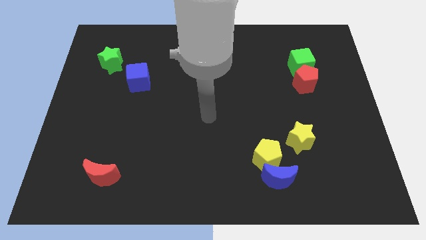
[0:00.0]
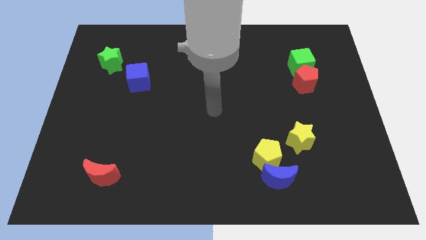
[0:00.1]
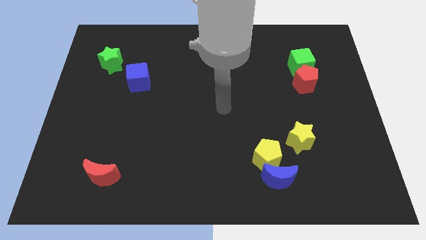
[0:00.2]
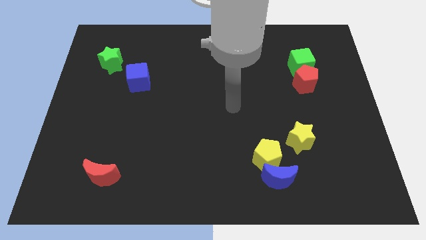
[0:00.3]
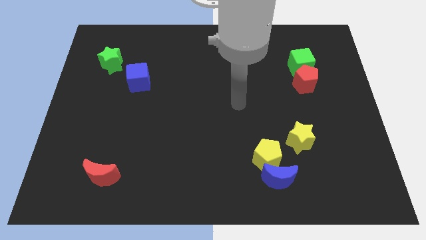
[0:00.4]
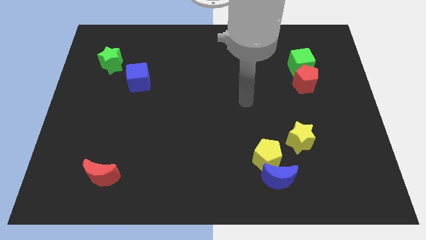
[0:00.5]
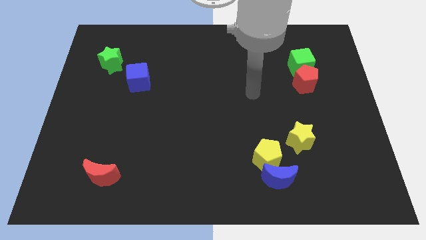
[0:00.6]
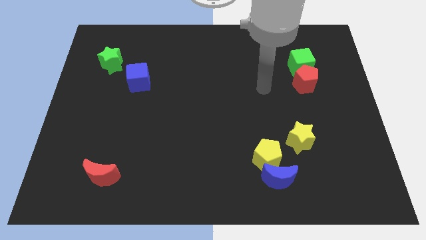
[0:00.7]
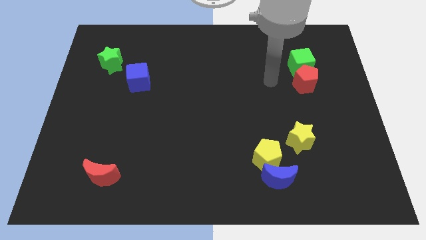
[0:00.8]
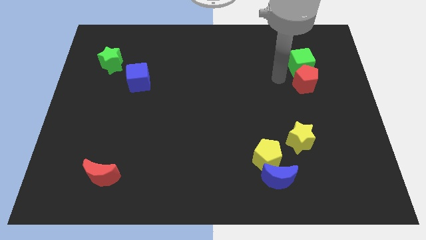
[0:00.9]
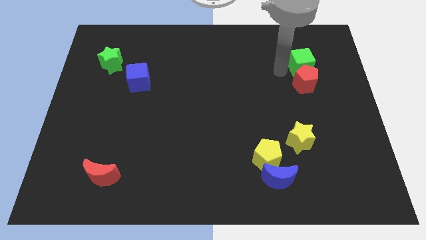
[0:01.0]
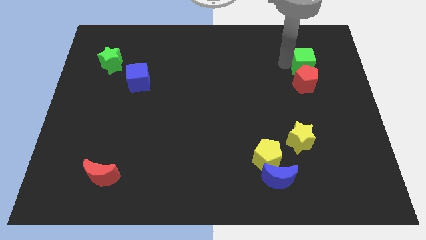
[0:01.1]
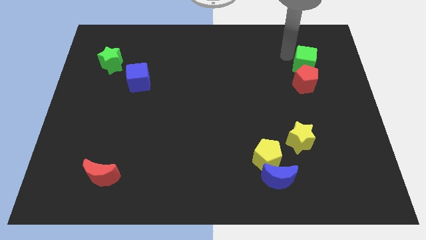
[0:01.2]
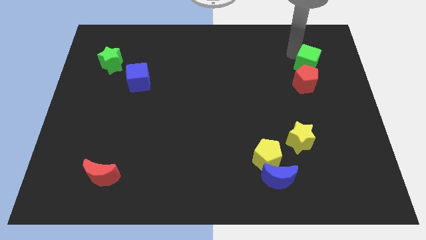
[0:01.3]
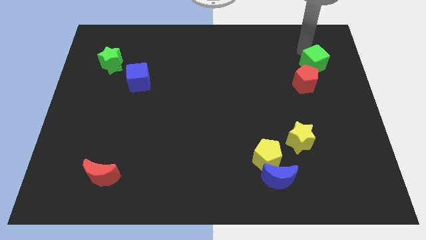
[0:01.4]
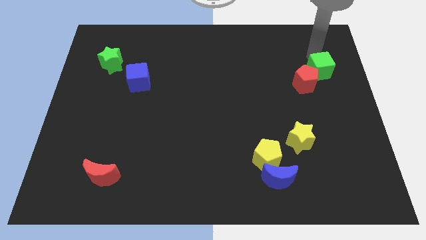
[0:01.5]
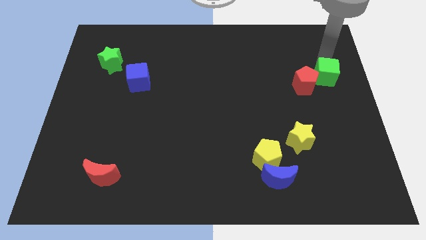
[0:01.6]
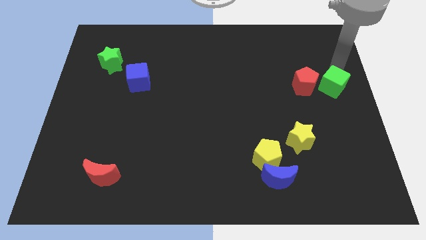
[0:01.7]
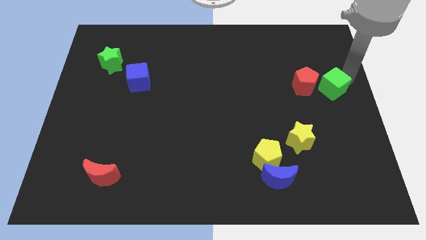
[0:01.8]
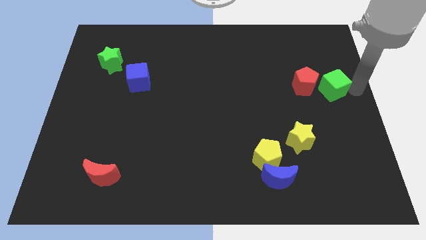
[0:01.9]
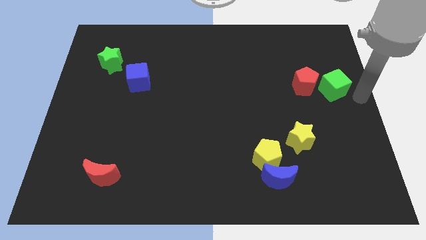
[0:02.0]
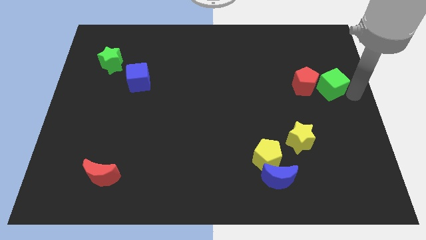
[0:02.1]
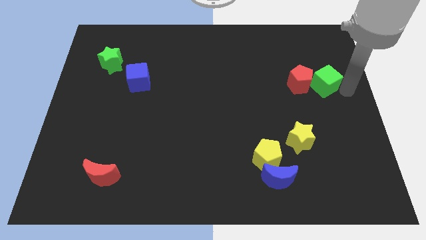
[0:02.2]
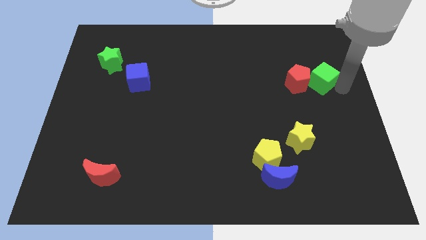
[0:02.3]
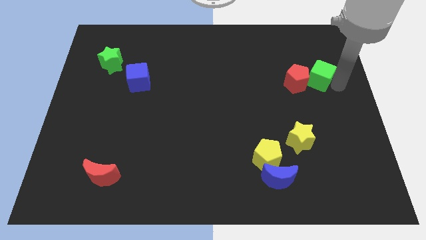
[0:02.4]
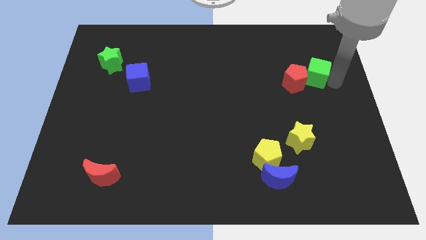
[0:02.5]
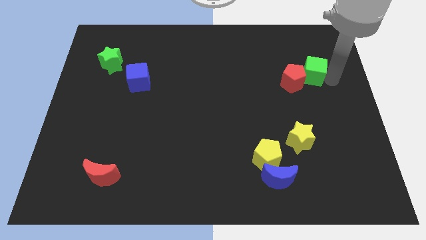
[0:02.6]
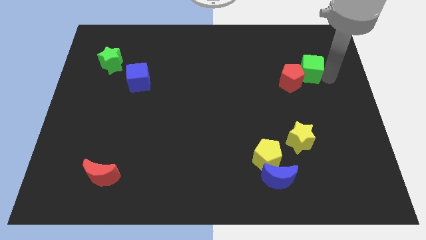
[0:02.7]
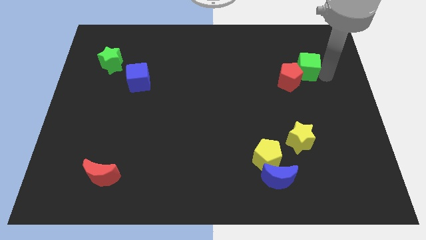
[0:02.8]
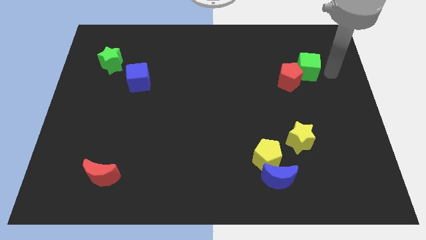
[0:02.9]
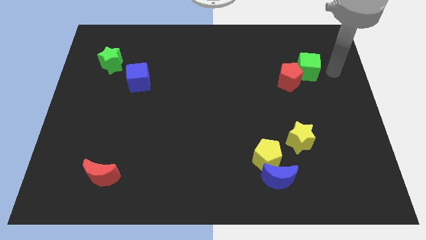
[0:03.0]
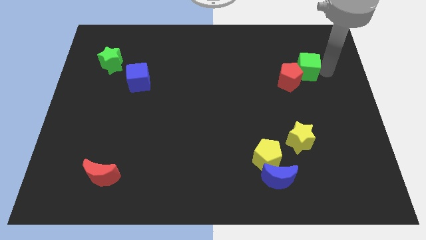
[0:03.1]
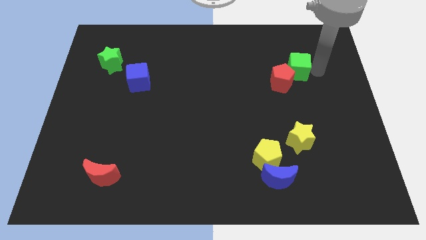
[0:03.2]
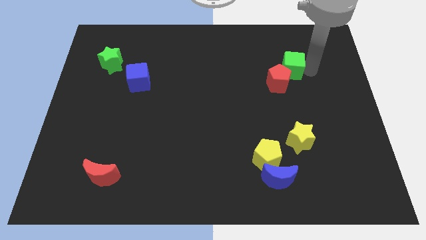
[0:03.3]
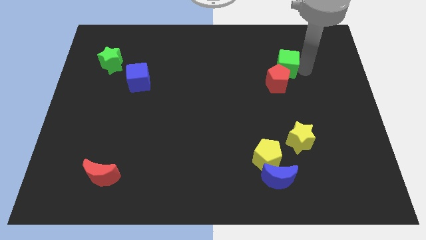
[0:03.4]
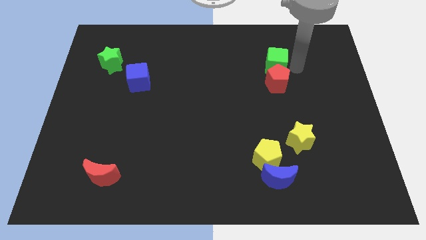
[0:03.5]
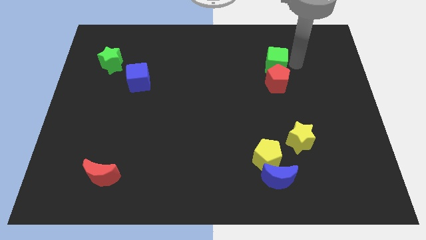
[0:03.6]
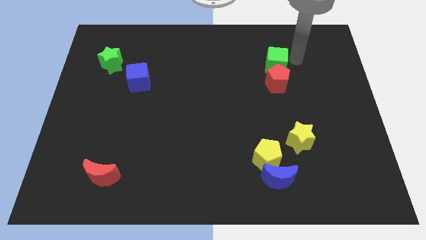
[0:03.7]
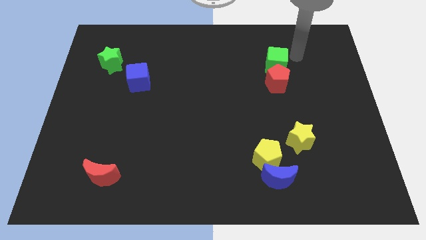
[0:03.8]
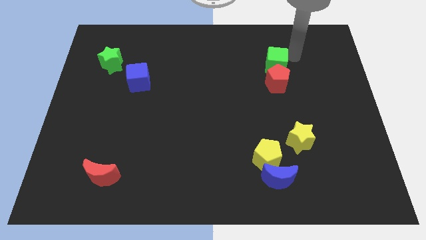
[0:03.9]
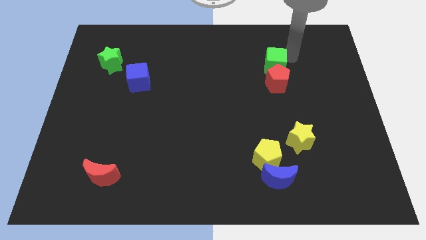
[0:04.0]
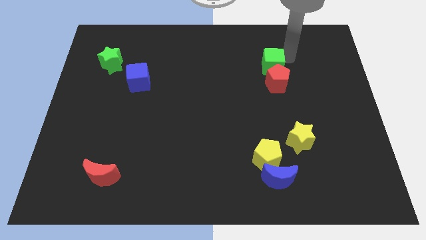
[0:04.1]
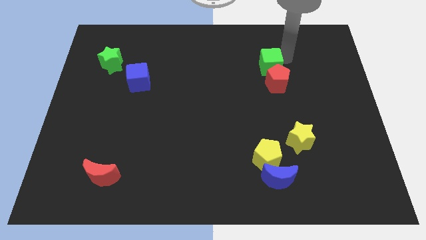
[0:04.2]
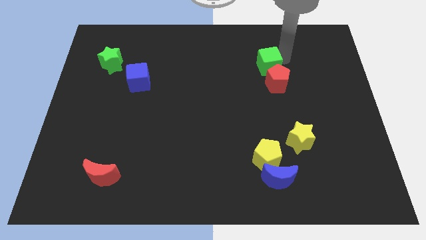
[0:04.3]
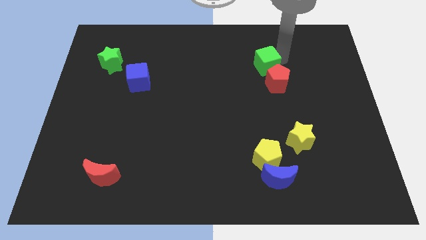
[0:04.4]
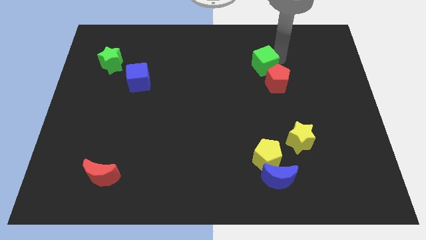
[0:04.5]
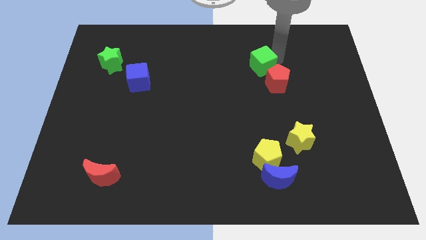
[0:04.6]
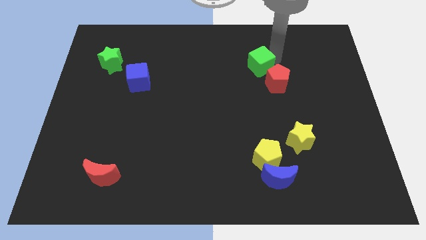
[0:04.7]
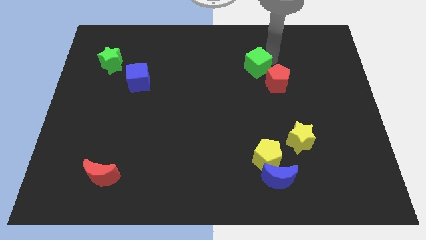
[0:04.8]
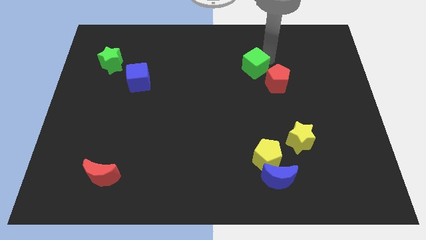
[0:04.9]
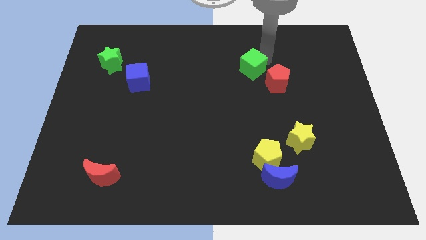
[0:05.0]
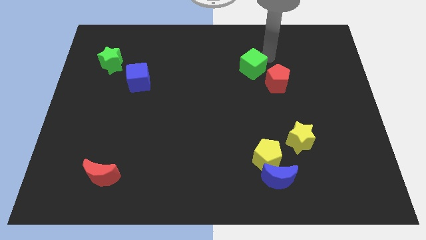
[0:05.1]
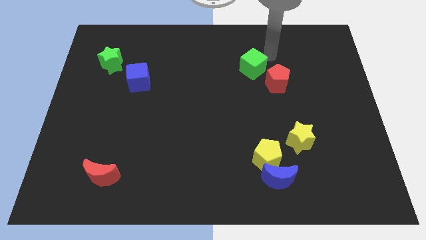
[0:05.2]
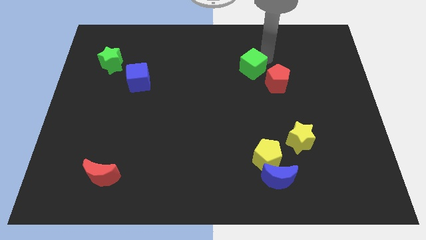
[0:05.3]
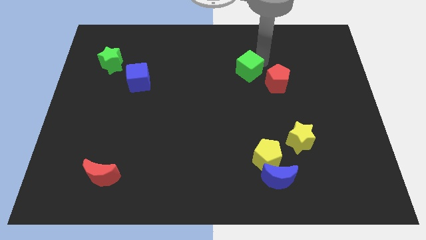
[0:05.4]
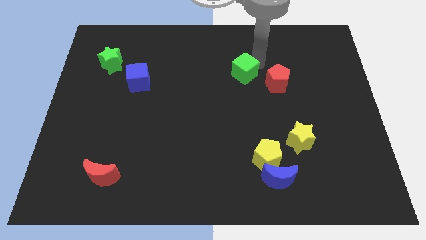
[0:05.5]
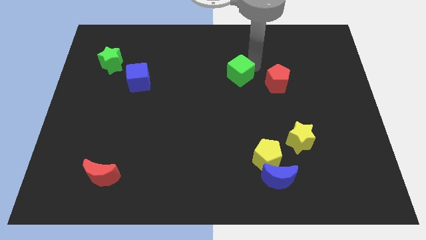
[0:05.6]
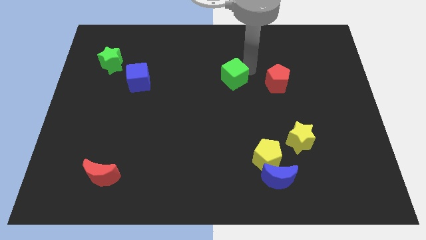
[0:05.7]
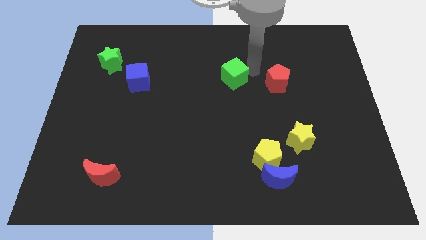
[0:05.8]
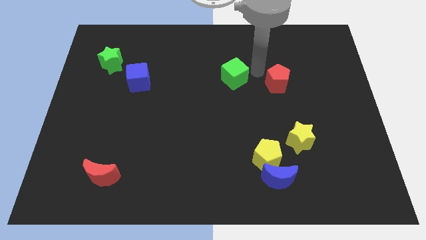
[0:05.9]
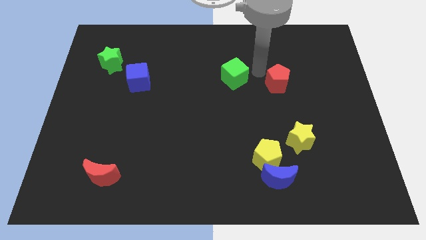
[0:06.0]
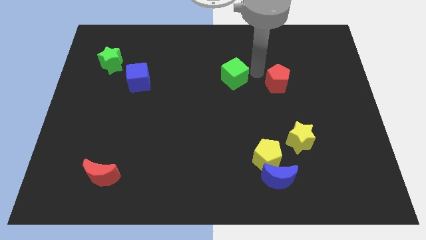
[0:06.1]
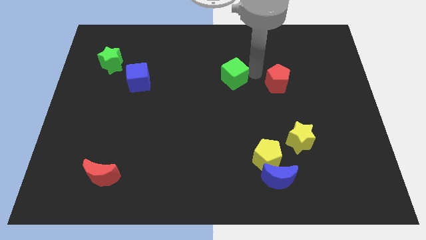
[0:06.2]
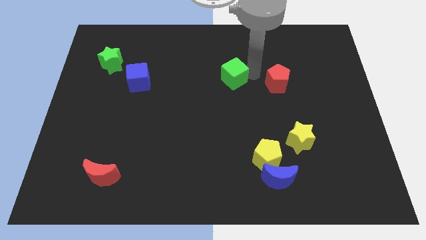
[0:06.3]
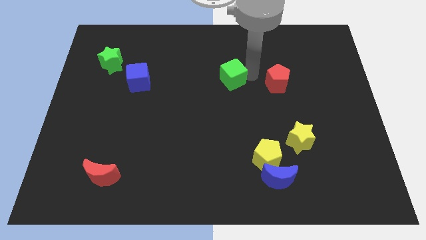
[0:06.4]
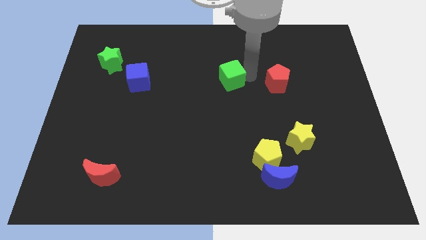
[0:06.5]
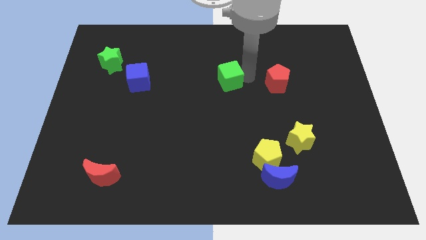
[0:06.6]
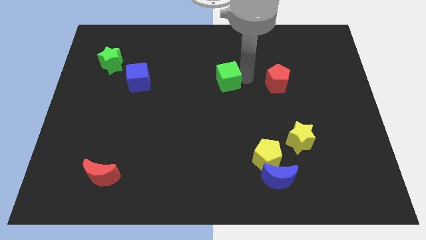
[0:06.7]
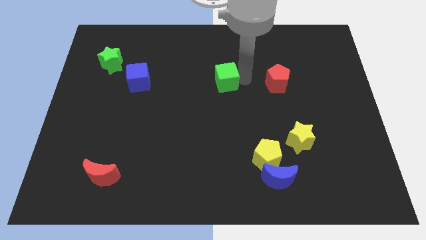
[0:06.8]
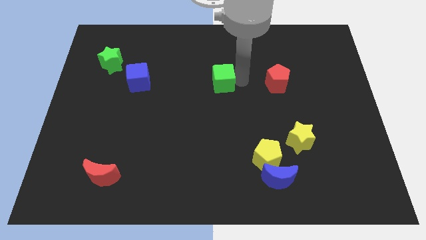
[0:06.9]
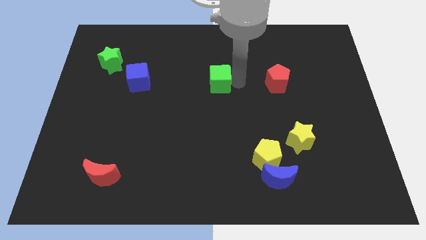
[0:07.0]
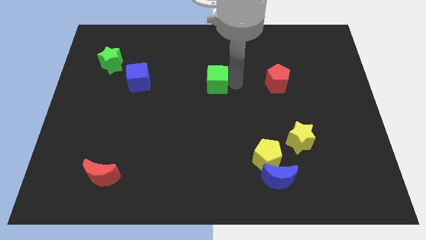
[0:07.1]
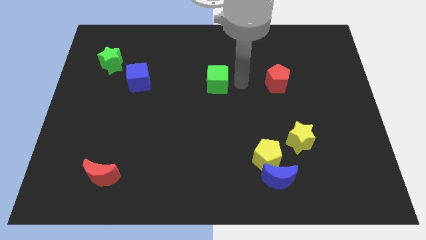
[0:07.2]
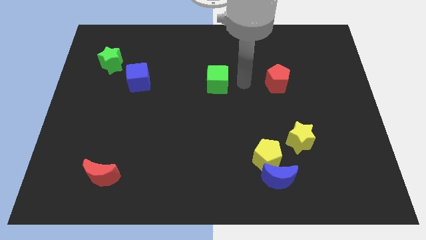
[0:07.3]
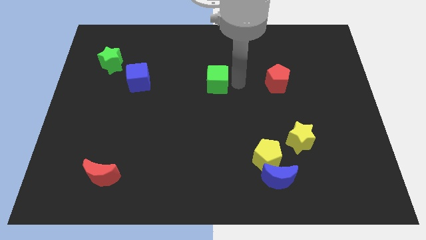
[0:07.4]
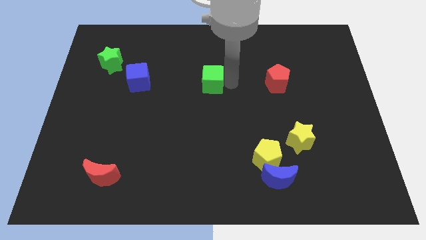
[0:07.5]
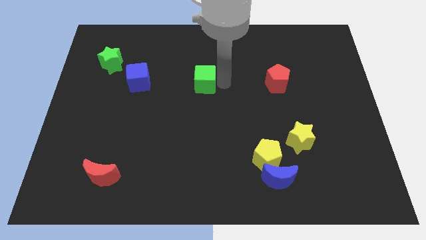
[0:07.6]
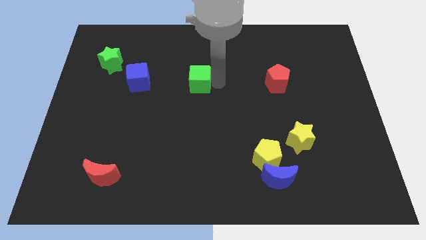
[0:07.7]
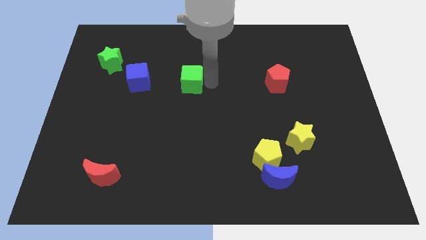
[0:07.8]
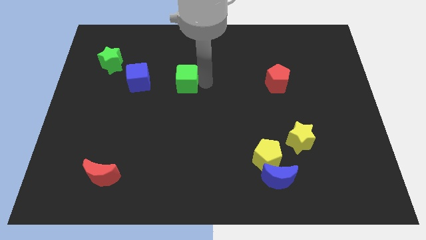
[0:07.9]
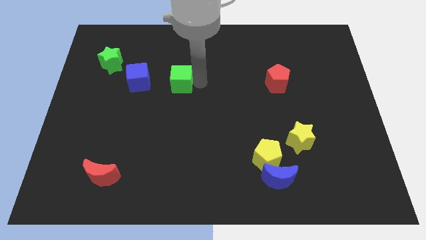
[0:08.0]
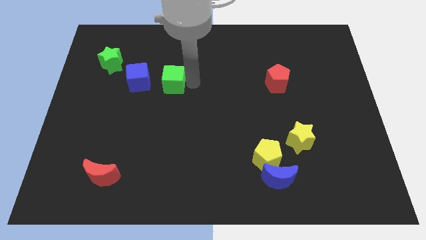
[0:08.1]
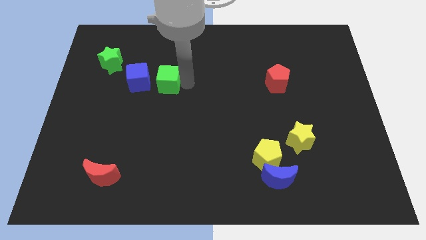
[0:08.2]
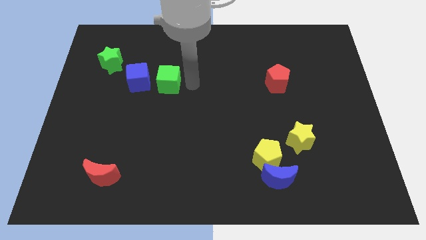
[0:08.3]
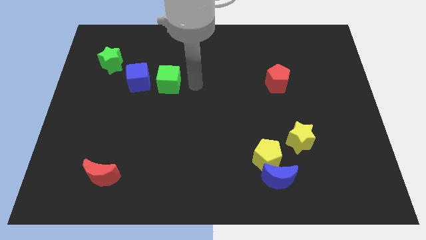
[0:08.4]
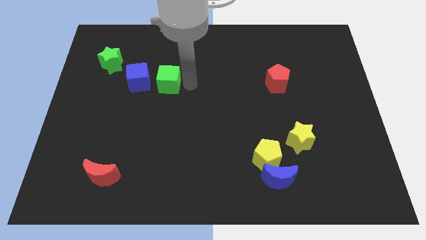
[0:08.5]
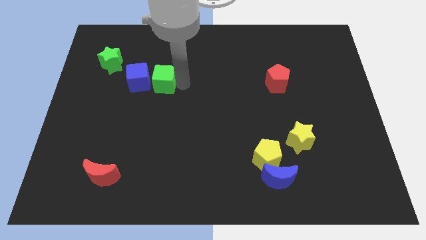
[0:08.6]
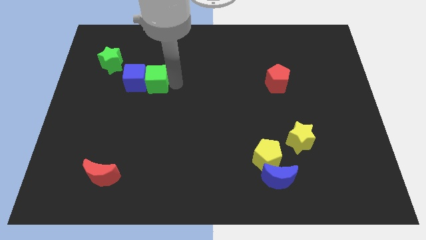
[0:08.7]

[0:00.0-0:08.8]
move the green cube close to the blue cube
